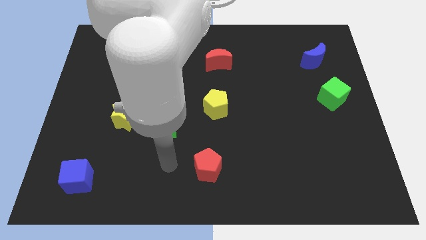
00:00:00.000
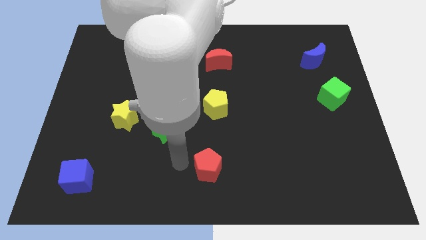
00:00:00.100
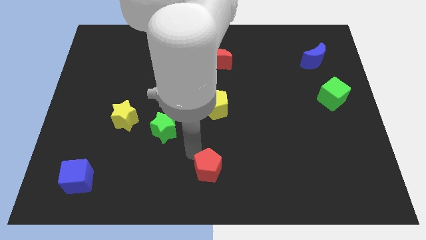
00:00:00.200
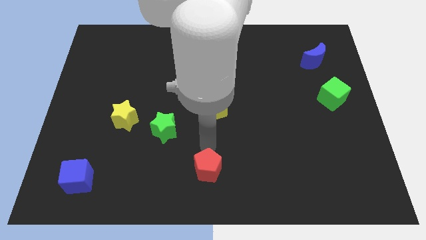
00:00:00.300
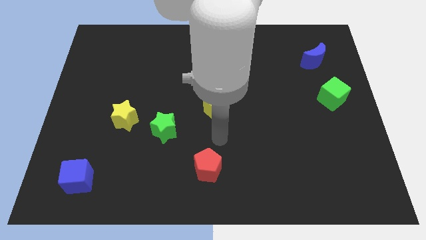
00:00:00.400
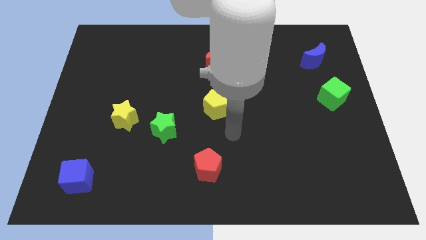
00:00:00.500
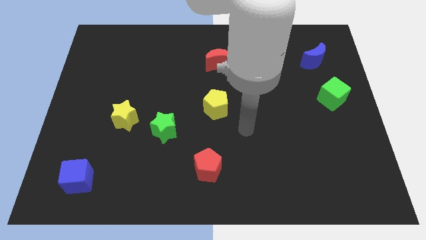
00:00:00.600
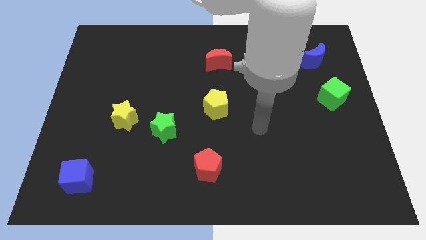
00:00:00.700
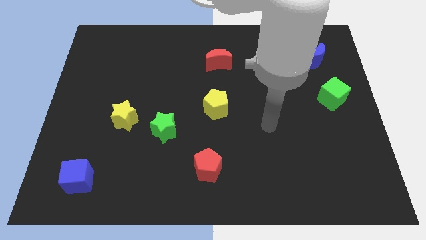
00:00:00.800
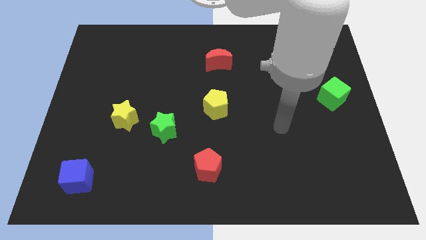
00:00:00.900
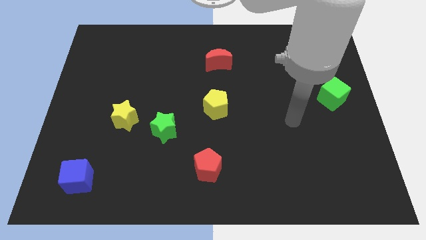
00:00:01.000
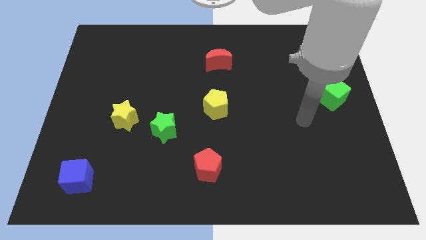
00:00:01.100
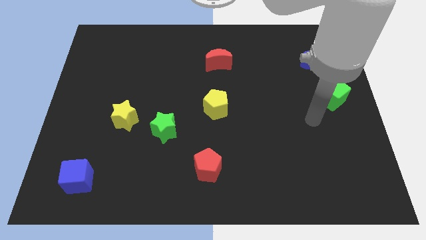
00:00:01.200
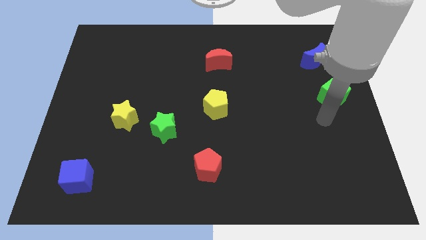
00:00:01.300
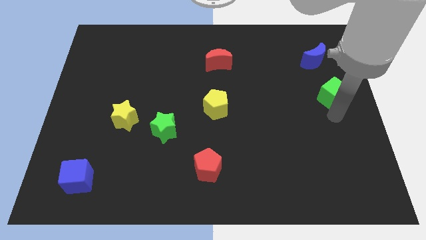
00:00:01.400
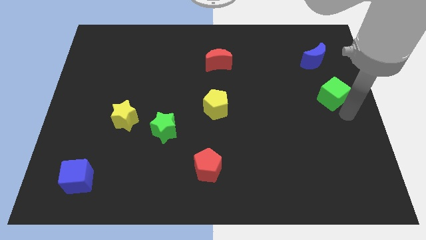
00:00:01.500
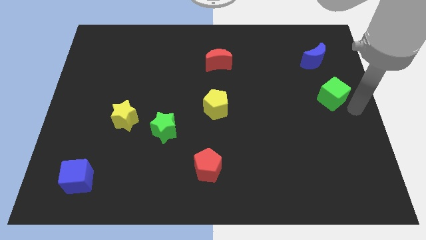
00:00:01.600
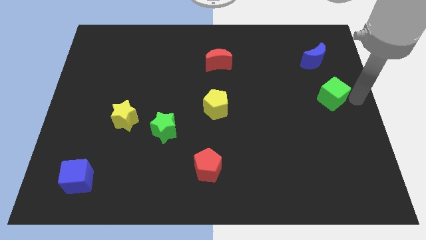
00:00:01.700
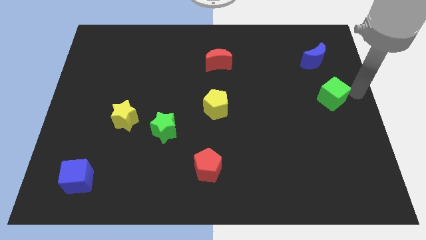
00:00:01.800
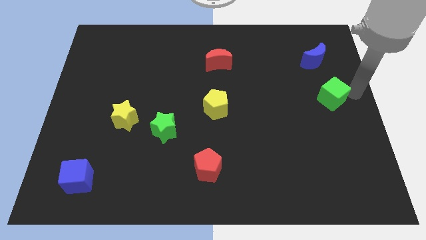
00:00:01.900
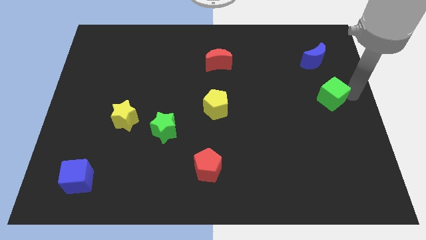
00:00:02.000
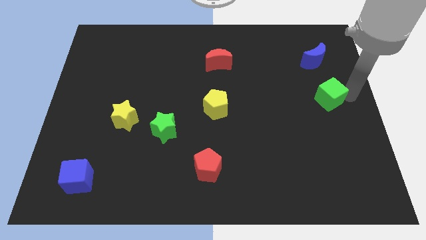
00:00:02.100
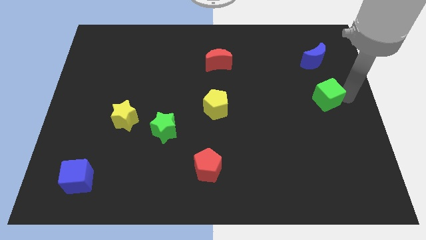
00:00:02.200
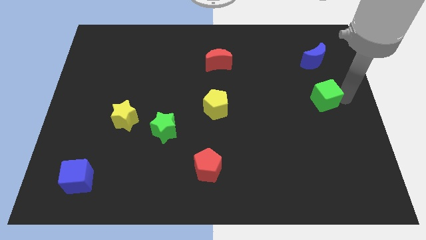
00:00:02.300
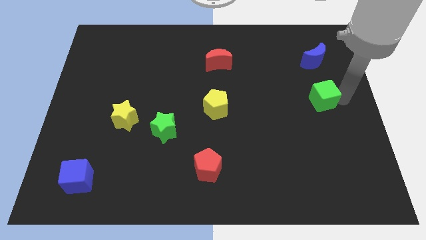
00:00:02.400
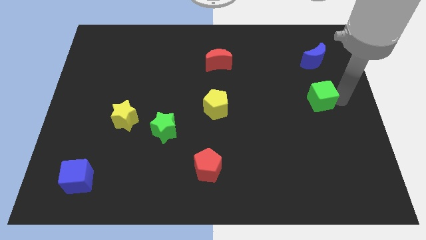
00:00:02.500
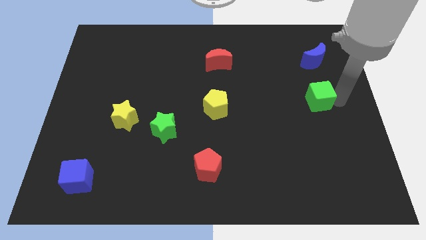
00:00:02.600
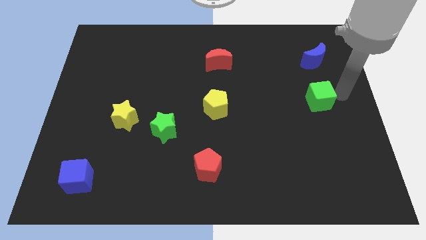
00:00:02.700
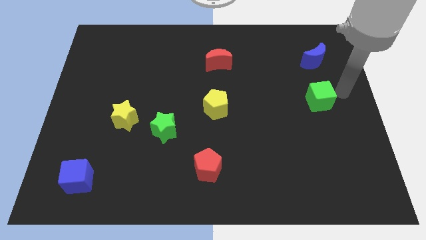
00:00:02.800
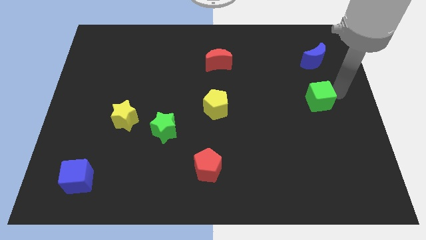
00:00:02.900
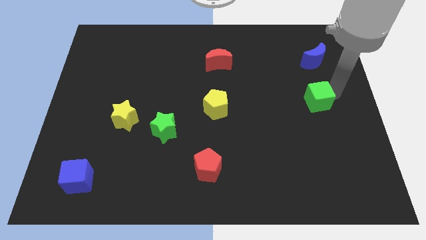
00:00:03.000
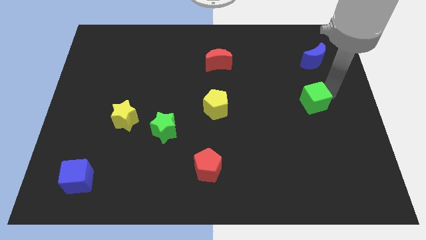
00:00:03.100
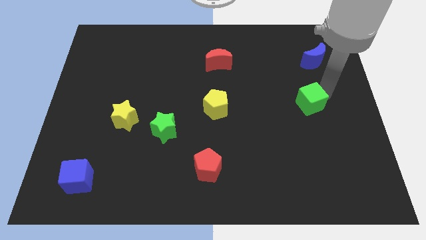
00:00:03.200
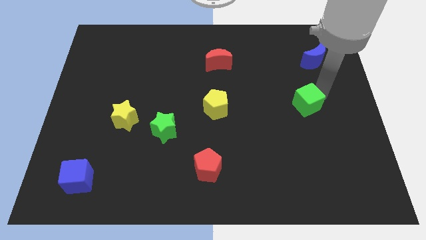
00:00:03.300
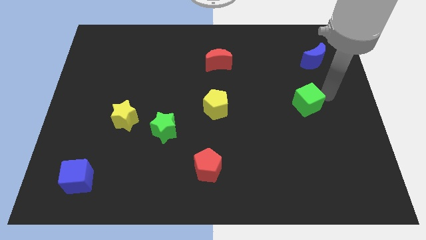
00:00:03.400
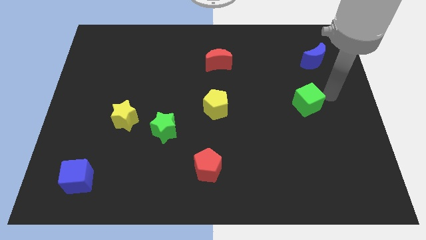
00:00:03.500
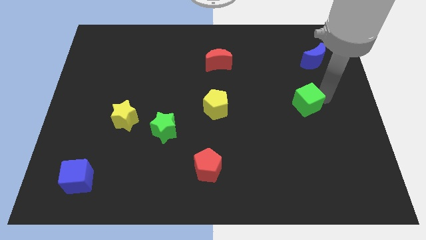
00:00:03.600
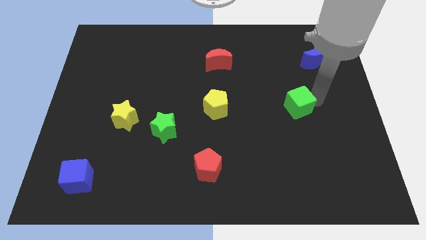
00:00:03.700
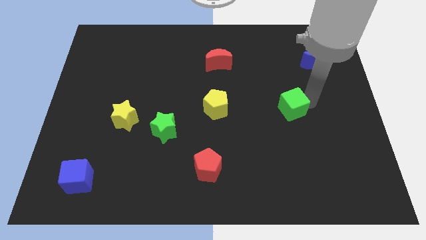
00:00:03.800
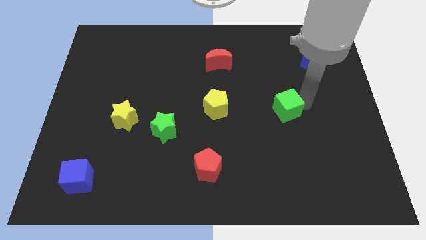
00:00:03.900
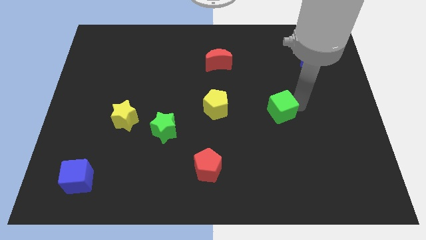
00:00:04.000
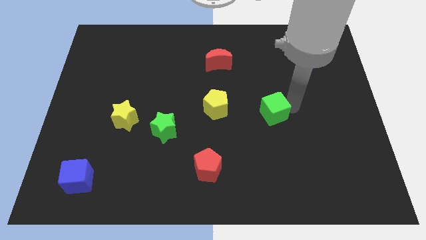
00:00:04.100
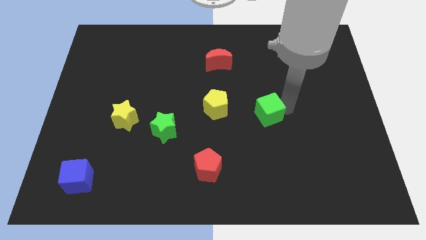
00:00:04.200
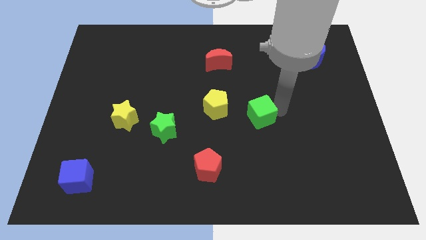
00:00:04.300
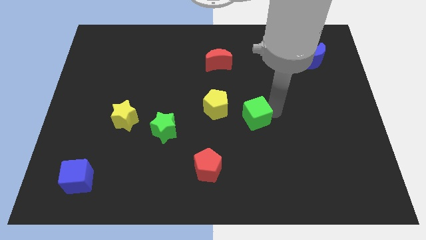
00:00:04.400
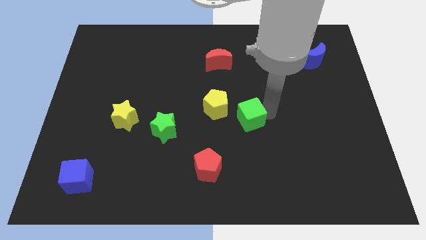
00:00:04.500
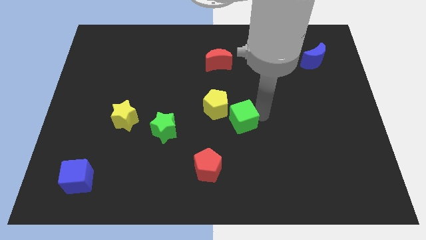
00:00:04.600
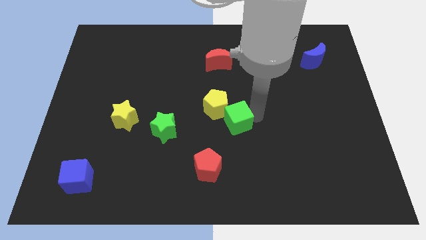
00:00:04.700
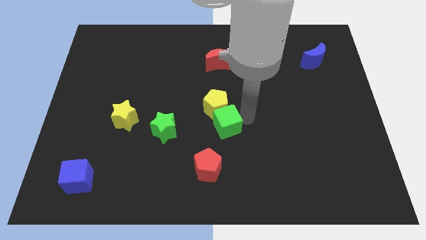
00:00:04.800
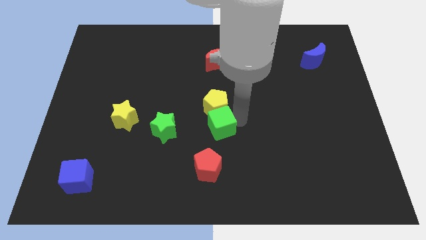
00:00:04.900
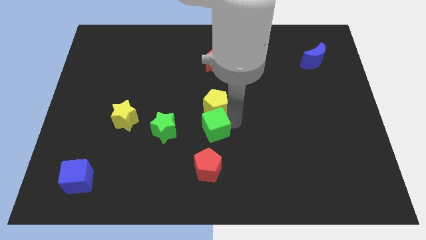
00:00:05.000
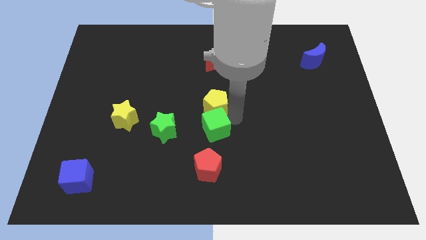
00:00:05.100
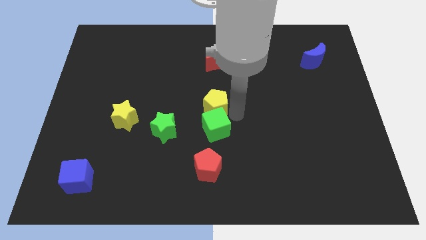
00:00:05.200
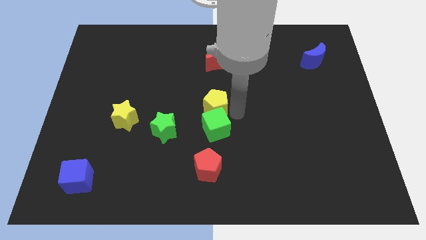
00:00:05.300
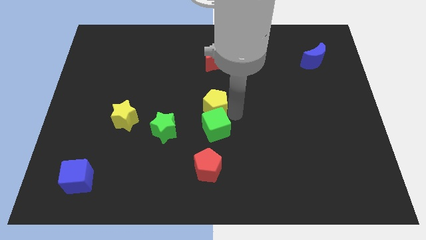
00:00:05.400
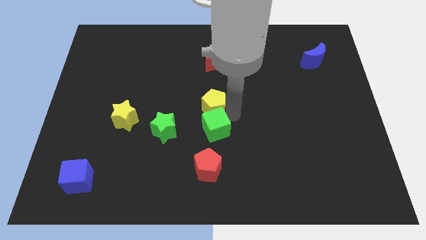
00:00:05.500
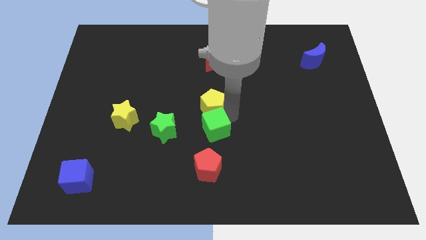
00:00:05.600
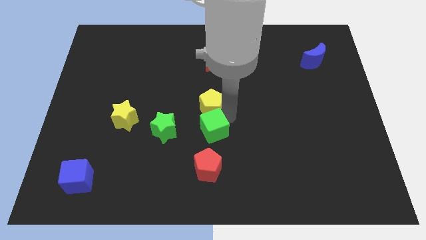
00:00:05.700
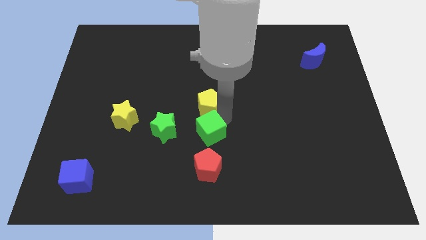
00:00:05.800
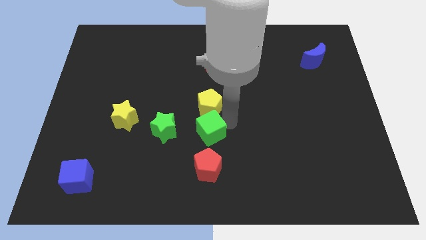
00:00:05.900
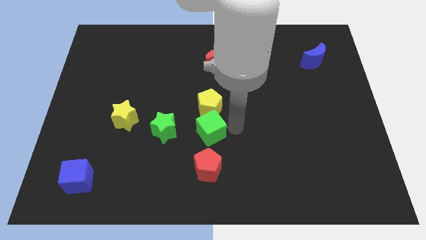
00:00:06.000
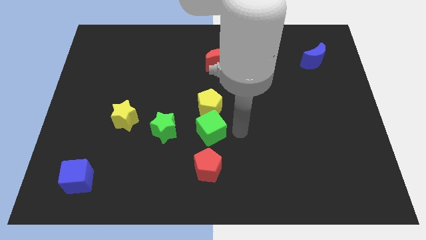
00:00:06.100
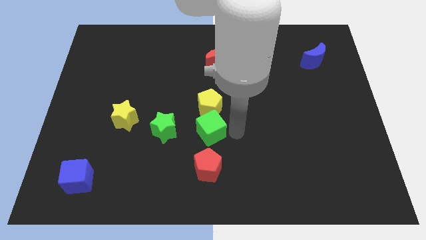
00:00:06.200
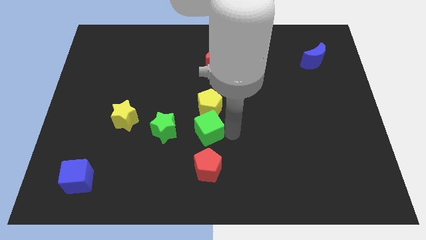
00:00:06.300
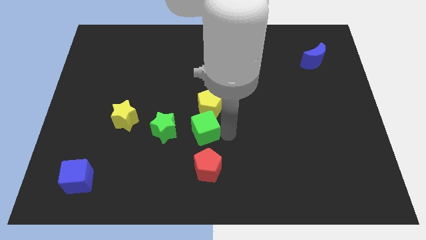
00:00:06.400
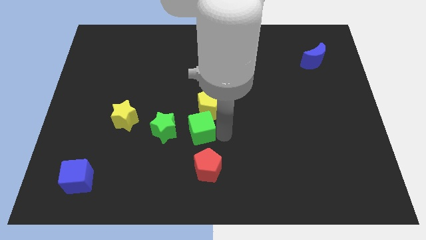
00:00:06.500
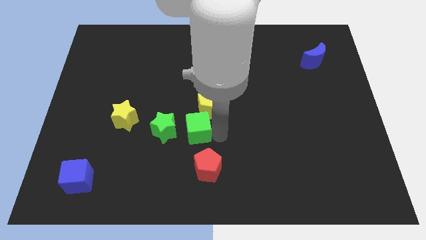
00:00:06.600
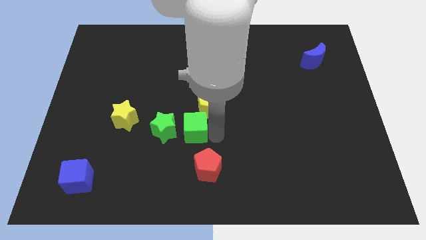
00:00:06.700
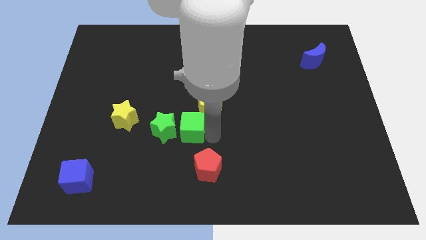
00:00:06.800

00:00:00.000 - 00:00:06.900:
push the green cube towards the green star

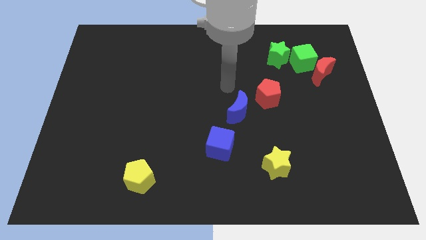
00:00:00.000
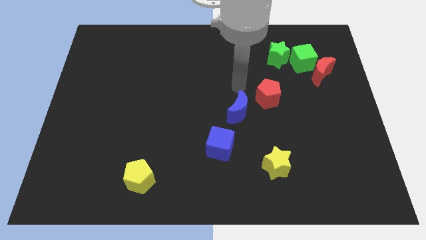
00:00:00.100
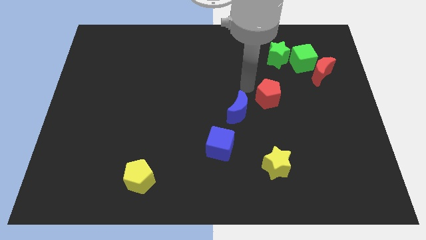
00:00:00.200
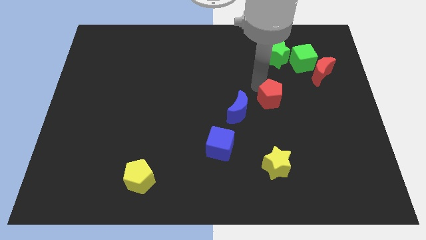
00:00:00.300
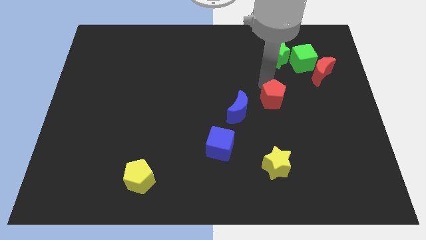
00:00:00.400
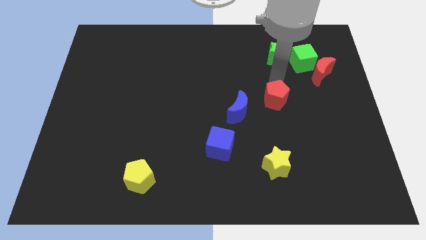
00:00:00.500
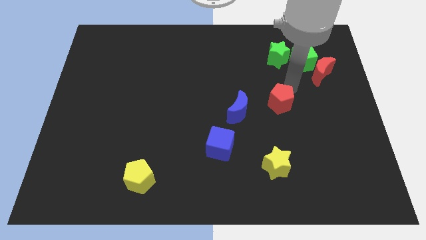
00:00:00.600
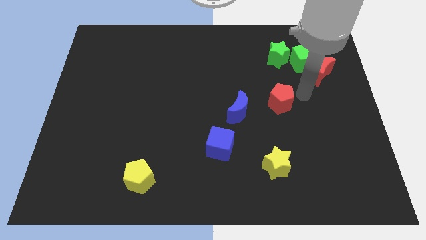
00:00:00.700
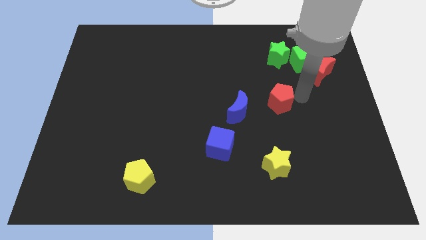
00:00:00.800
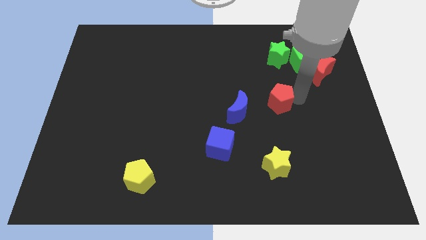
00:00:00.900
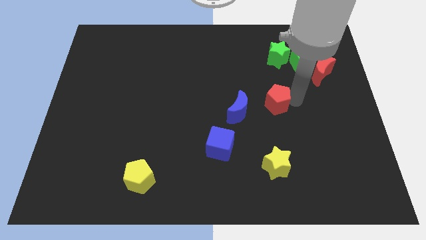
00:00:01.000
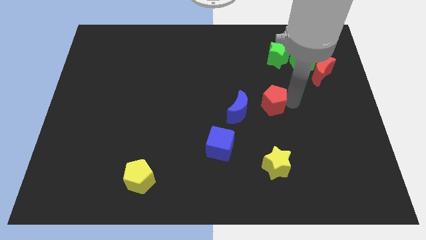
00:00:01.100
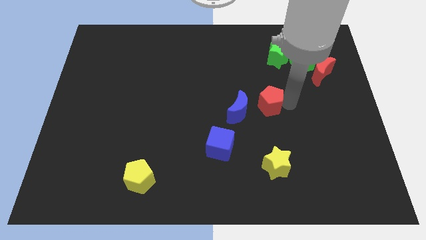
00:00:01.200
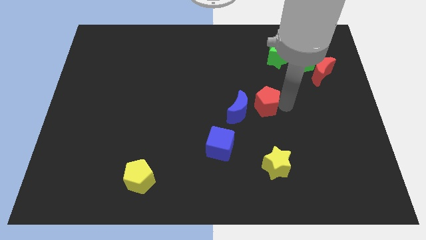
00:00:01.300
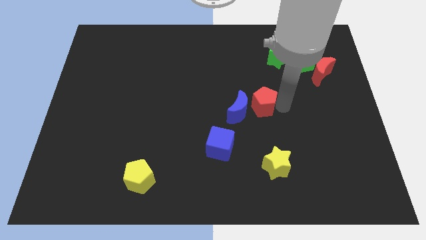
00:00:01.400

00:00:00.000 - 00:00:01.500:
move the red pentagon towards the blue moon
